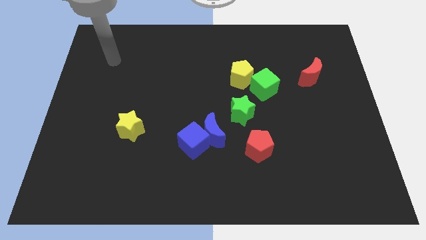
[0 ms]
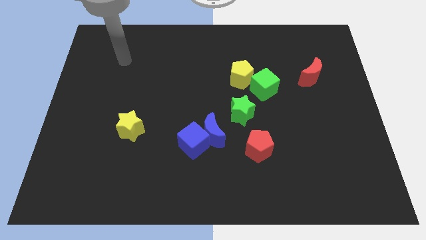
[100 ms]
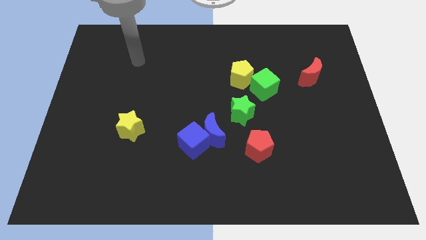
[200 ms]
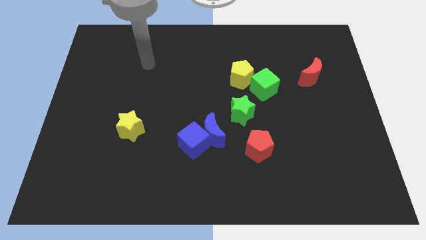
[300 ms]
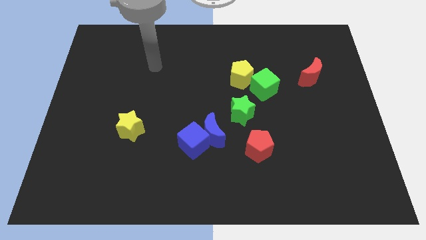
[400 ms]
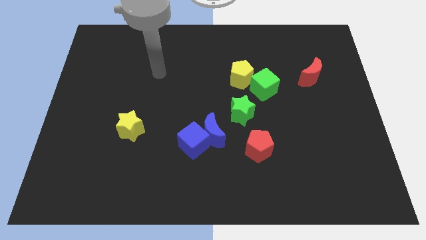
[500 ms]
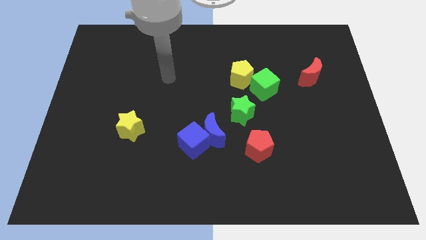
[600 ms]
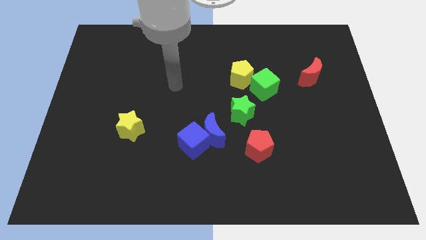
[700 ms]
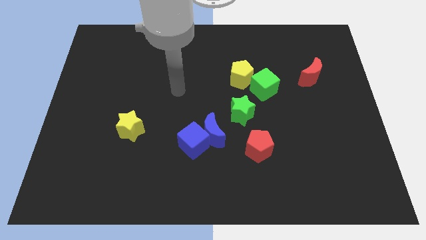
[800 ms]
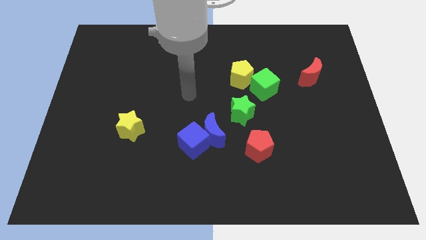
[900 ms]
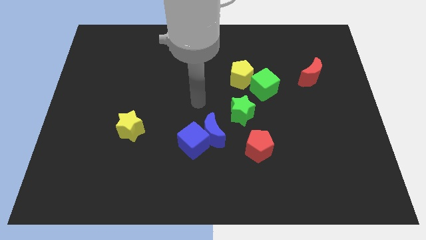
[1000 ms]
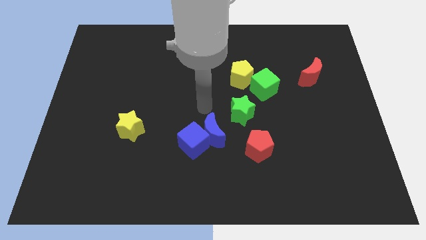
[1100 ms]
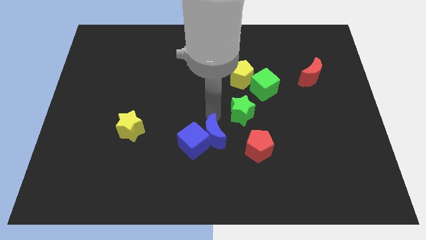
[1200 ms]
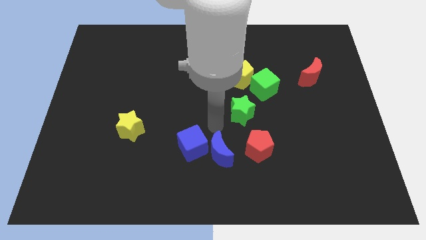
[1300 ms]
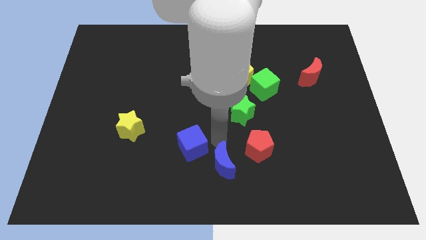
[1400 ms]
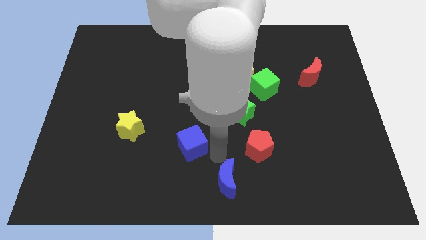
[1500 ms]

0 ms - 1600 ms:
separate the blue cube from the blue moon

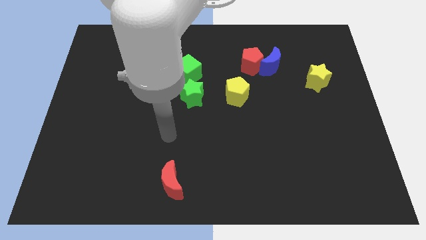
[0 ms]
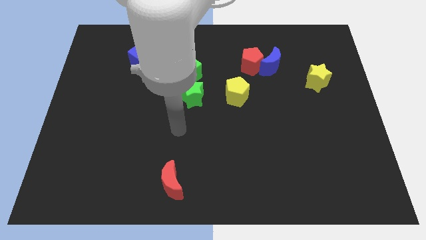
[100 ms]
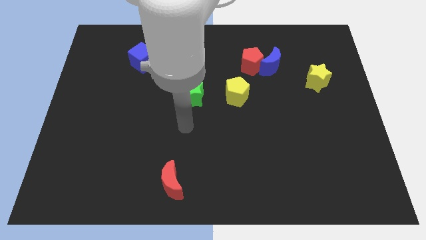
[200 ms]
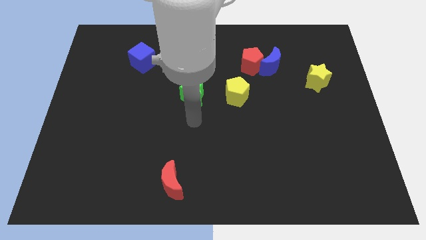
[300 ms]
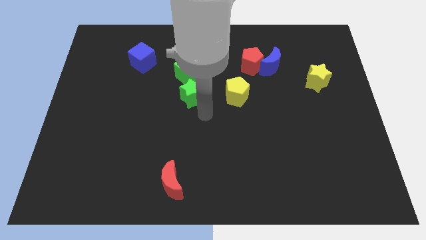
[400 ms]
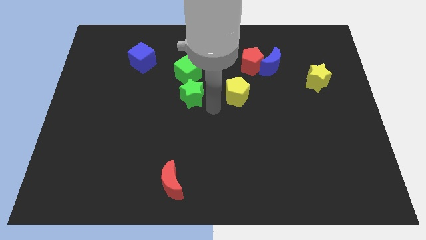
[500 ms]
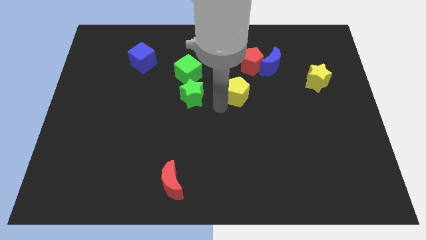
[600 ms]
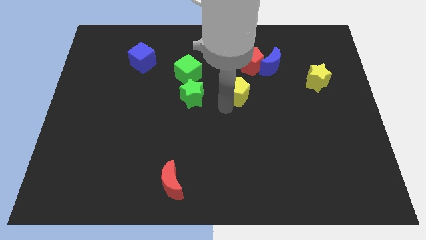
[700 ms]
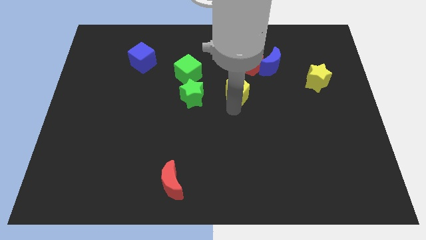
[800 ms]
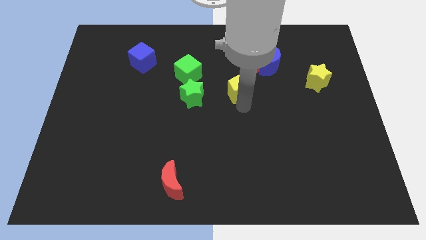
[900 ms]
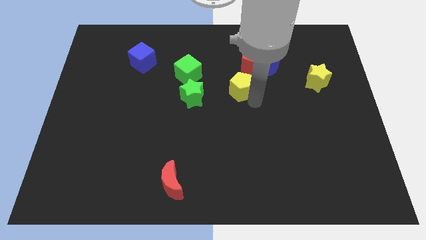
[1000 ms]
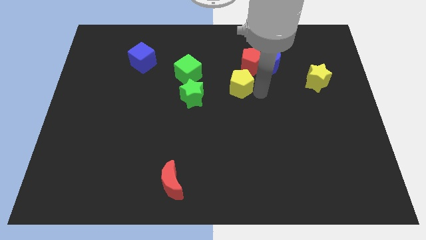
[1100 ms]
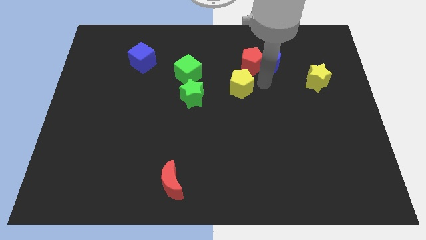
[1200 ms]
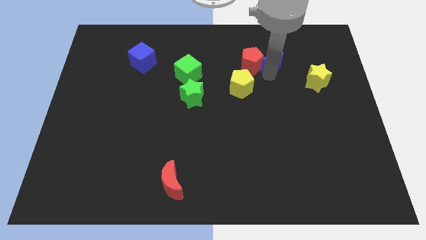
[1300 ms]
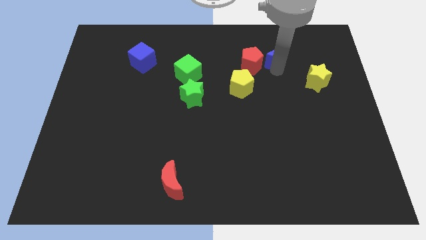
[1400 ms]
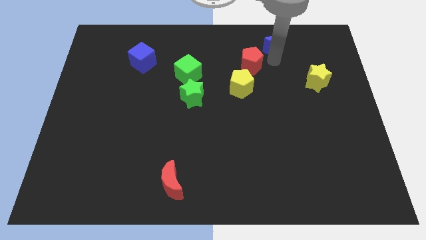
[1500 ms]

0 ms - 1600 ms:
pull the red pentagon apart from the blue moon

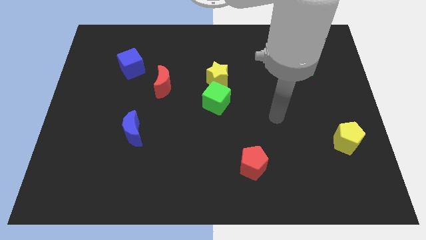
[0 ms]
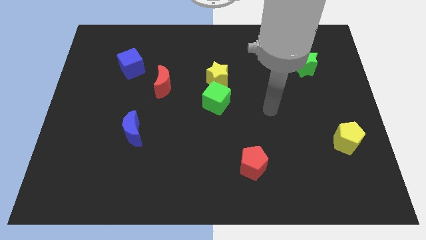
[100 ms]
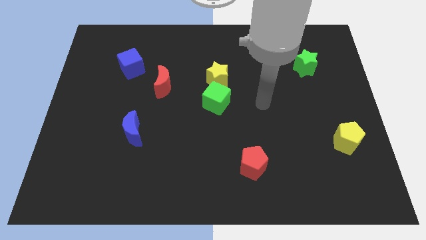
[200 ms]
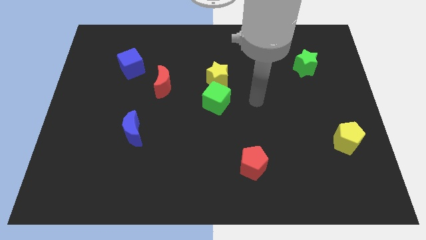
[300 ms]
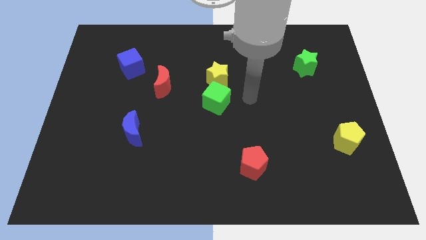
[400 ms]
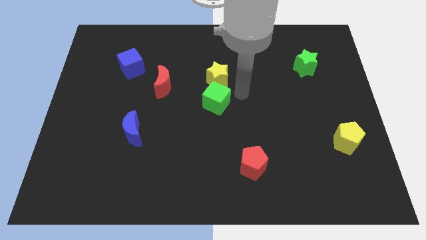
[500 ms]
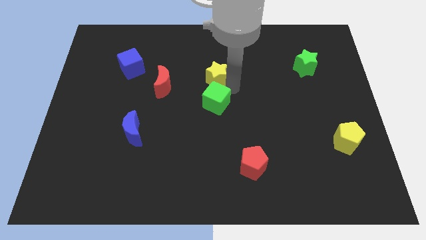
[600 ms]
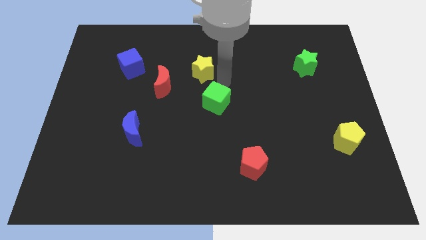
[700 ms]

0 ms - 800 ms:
pull the green cube apart from the yellow star

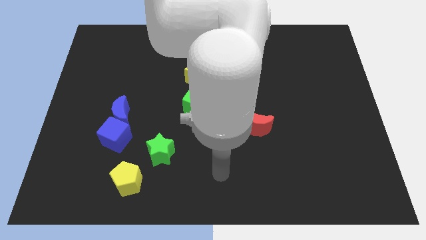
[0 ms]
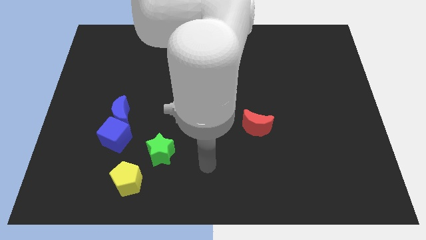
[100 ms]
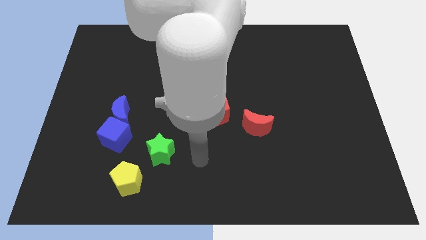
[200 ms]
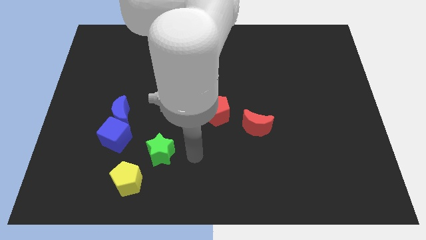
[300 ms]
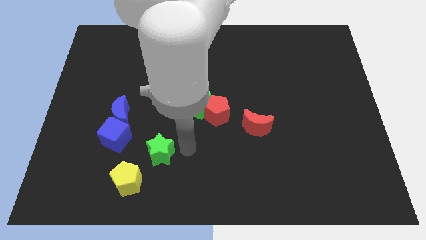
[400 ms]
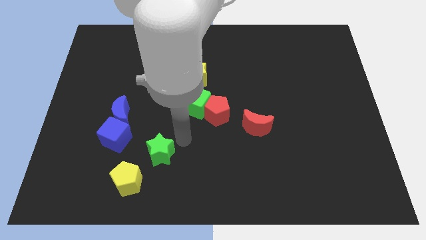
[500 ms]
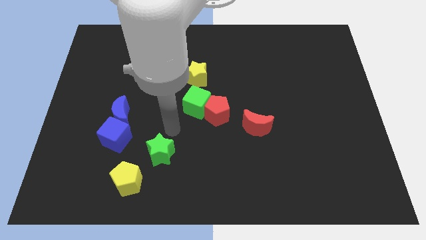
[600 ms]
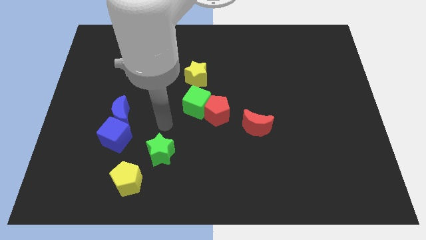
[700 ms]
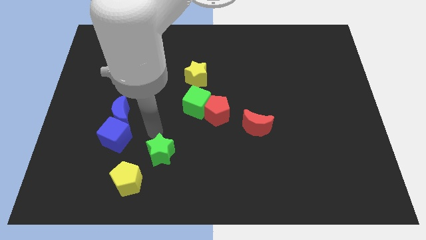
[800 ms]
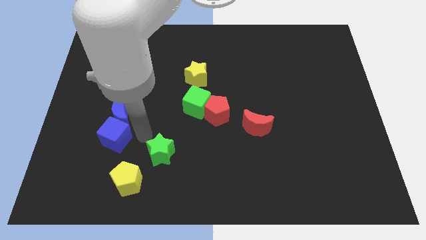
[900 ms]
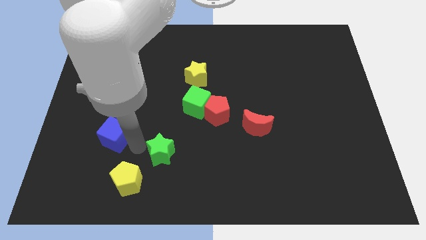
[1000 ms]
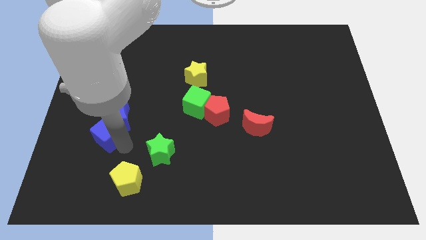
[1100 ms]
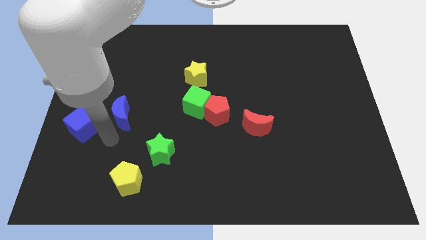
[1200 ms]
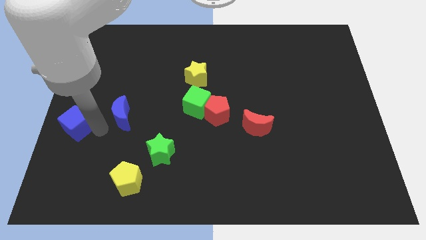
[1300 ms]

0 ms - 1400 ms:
separate the blue moon from the blue cube

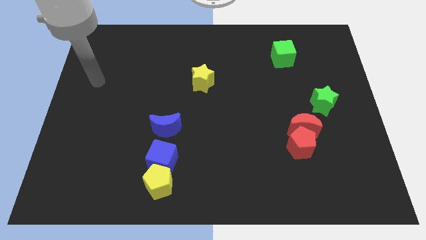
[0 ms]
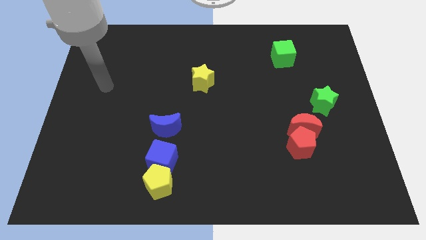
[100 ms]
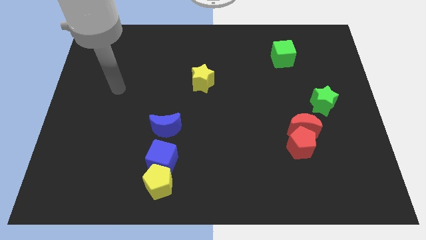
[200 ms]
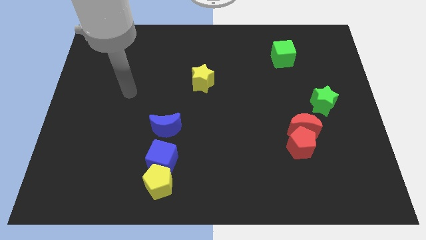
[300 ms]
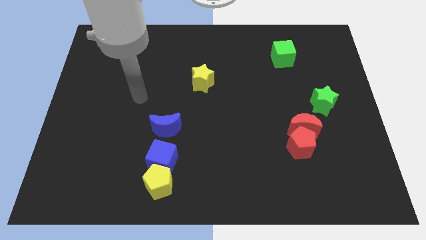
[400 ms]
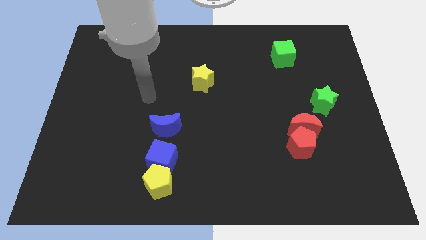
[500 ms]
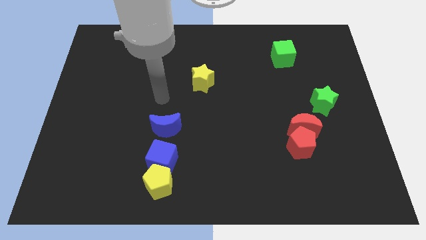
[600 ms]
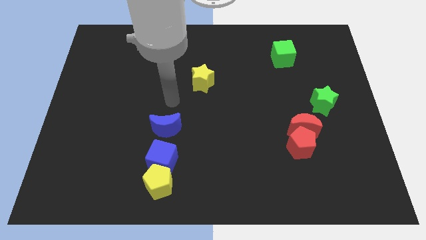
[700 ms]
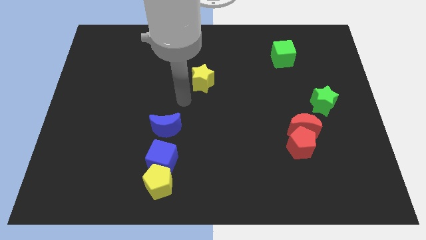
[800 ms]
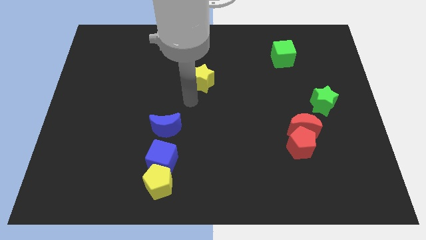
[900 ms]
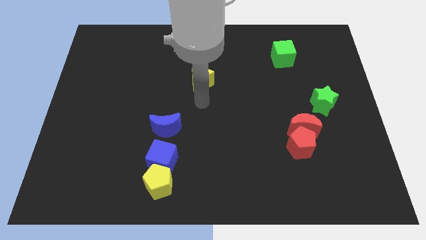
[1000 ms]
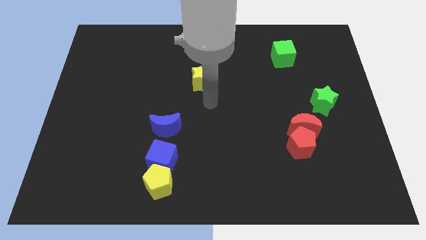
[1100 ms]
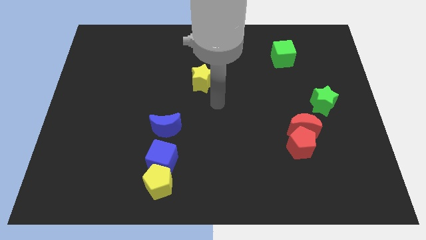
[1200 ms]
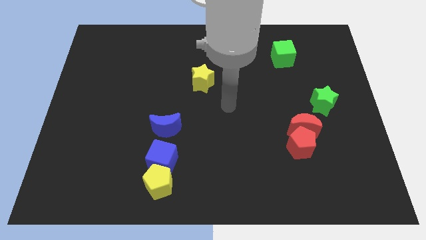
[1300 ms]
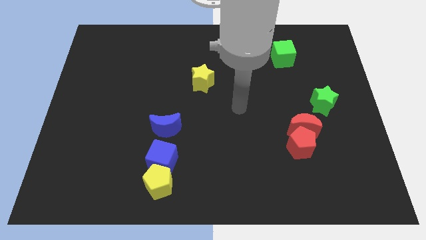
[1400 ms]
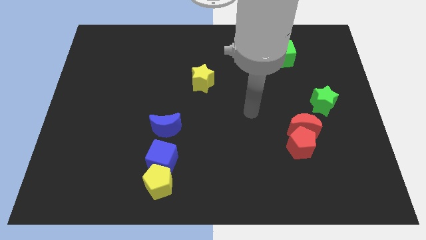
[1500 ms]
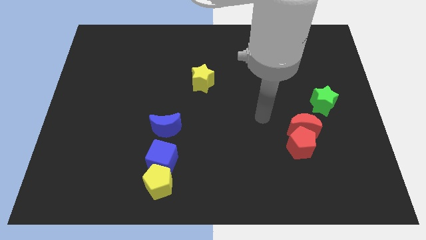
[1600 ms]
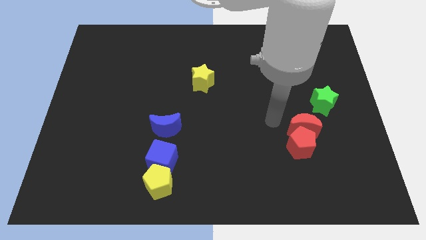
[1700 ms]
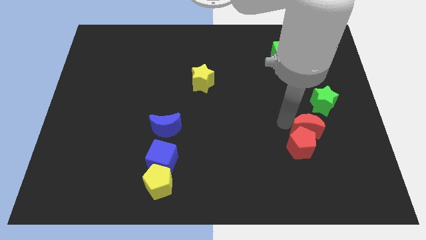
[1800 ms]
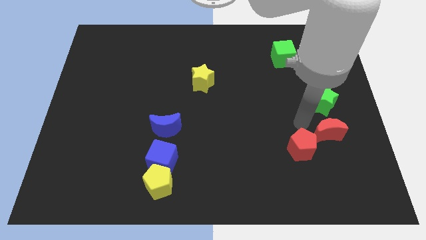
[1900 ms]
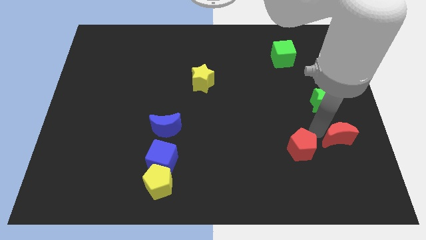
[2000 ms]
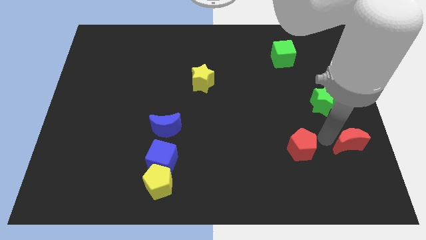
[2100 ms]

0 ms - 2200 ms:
pull the red pentagon apart from the red moon

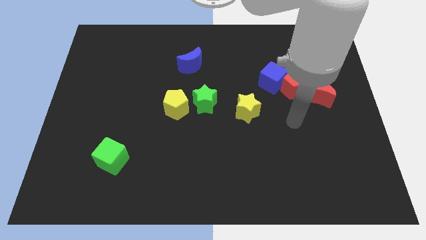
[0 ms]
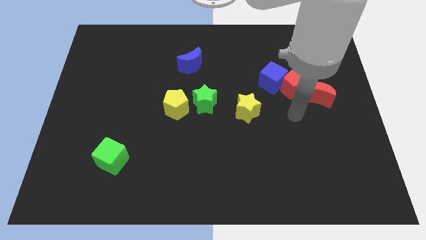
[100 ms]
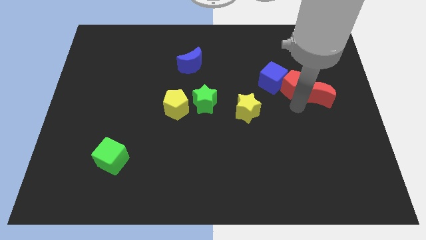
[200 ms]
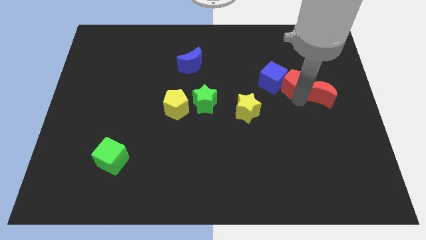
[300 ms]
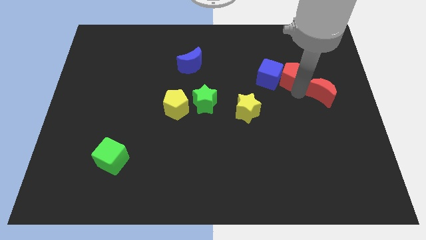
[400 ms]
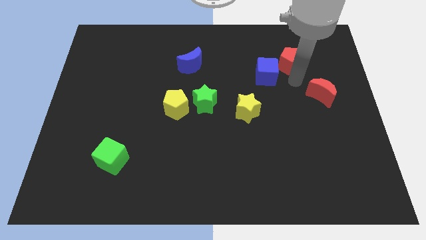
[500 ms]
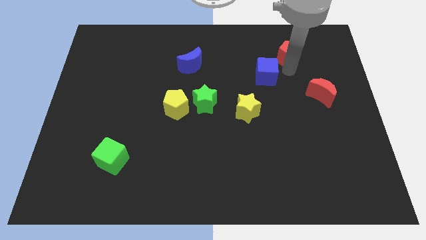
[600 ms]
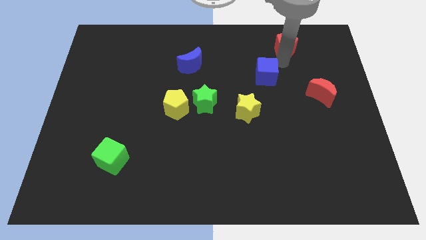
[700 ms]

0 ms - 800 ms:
pull the blue cube apart from the red pentagon

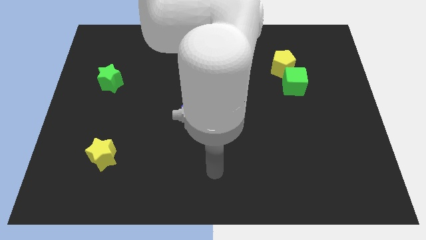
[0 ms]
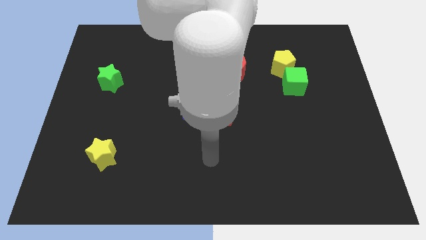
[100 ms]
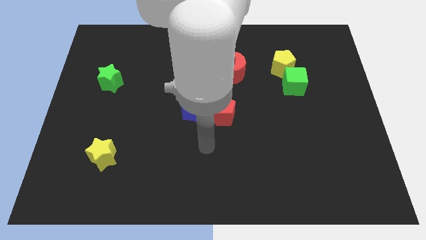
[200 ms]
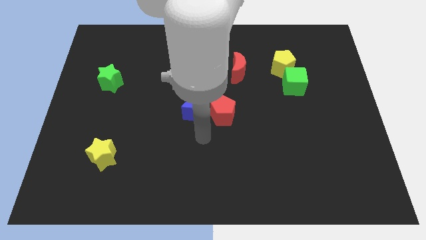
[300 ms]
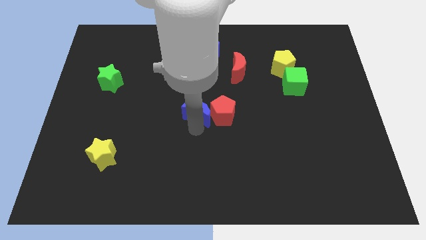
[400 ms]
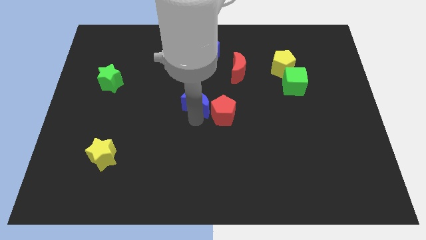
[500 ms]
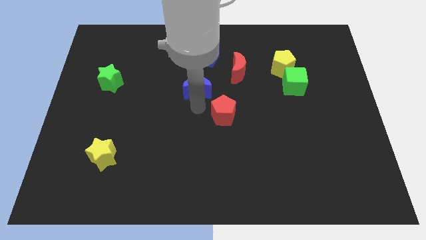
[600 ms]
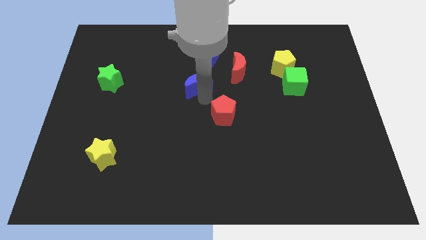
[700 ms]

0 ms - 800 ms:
move the red pentagon away from the blue moon

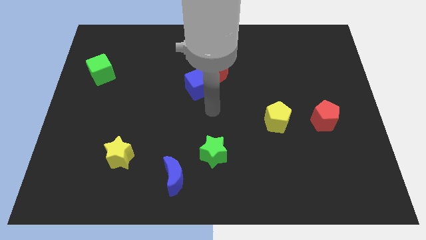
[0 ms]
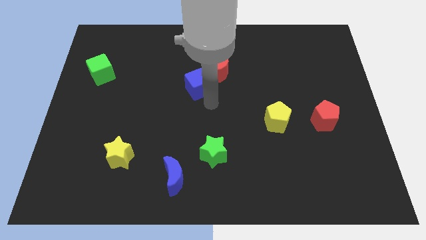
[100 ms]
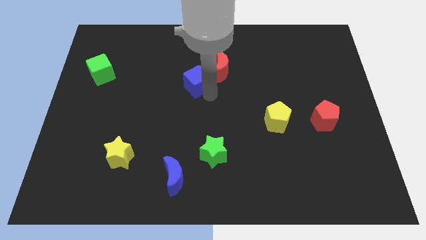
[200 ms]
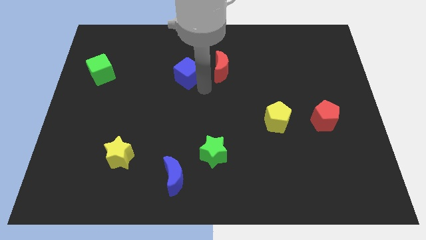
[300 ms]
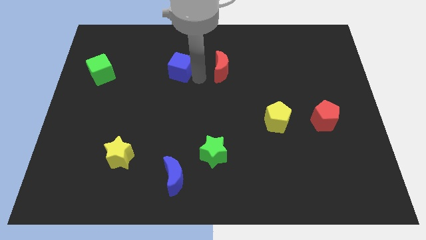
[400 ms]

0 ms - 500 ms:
pull the red moon apart from the blue cube
